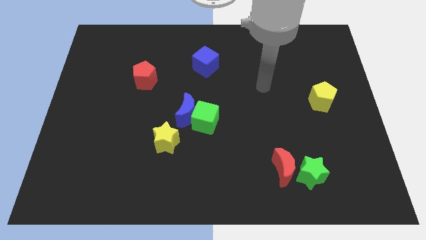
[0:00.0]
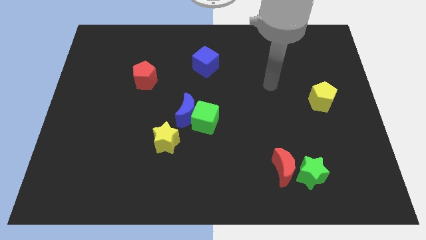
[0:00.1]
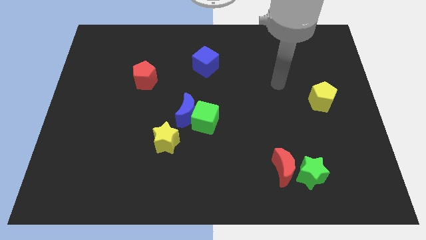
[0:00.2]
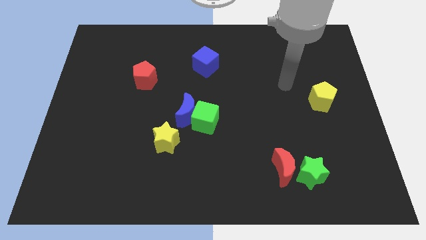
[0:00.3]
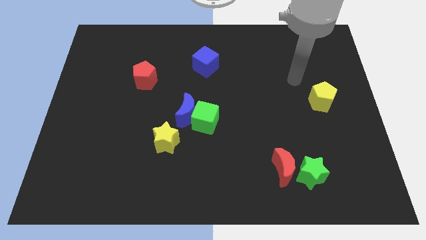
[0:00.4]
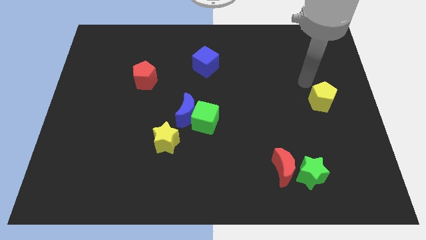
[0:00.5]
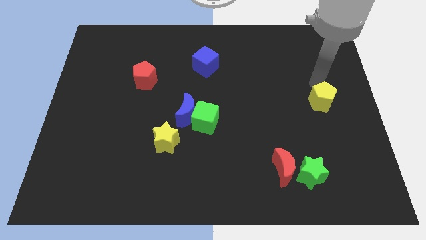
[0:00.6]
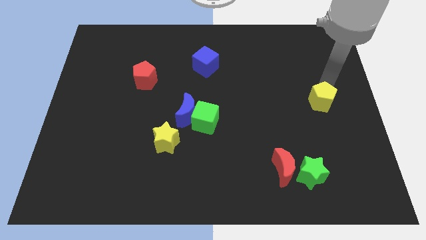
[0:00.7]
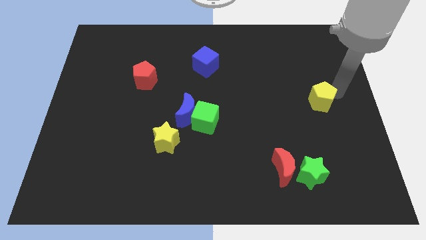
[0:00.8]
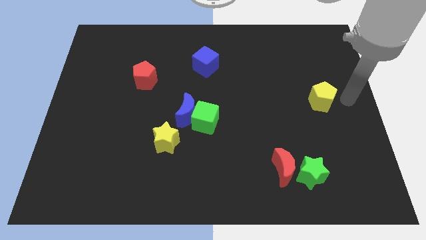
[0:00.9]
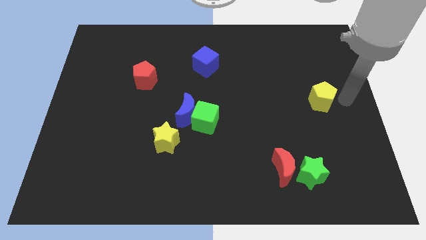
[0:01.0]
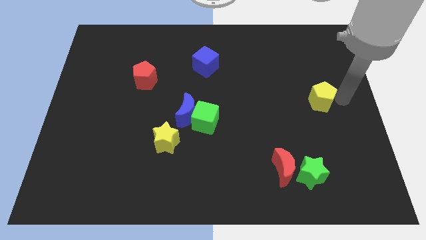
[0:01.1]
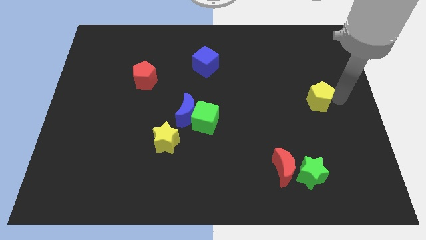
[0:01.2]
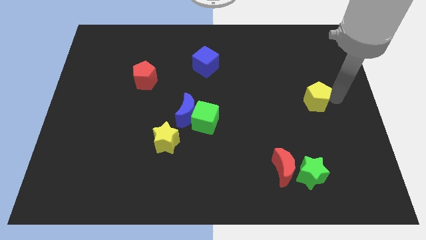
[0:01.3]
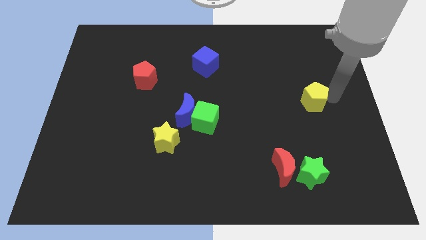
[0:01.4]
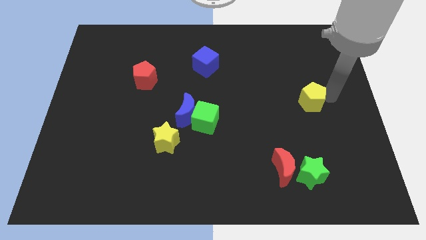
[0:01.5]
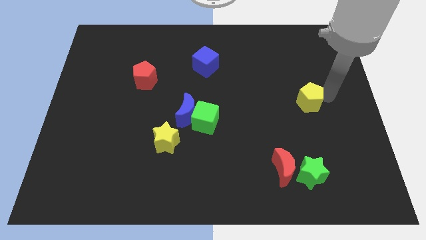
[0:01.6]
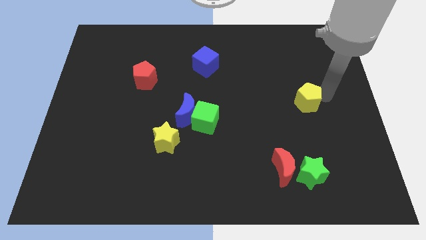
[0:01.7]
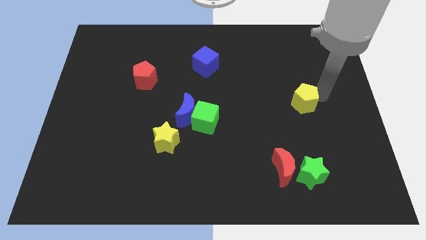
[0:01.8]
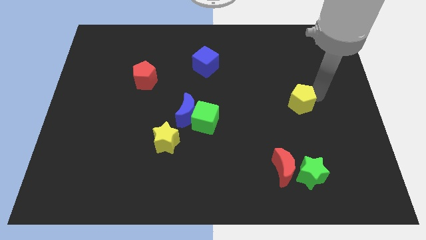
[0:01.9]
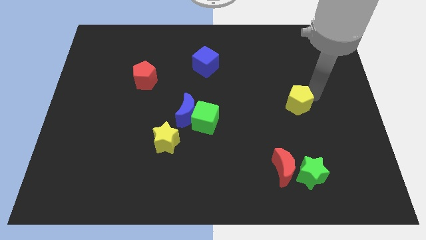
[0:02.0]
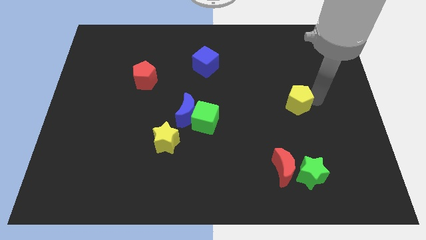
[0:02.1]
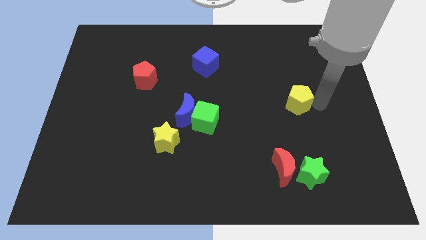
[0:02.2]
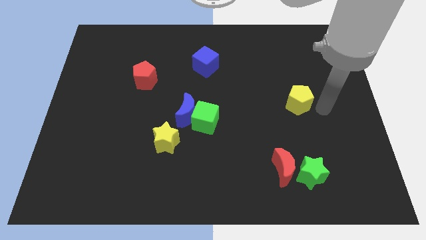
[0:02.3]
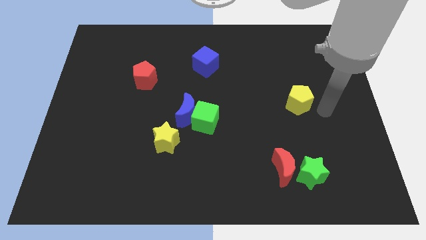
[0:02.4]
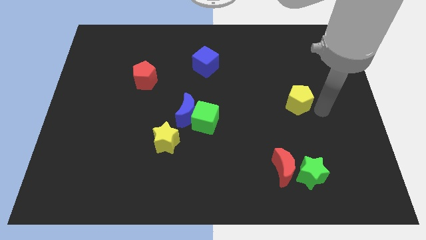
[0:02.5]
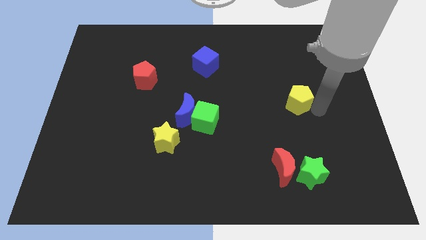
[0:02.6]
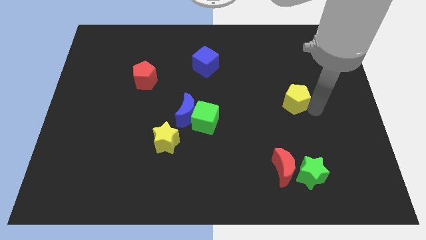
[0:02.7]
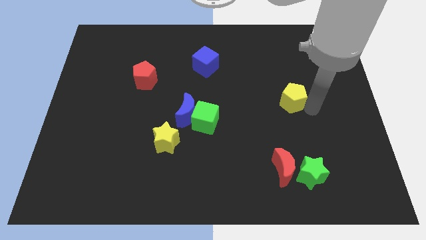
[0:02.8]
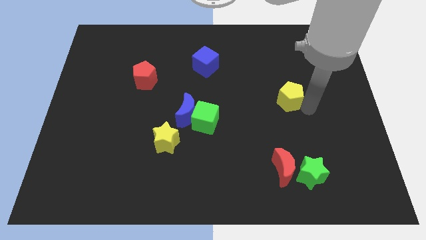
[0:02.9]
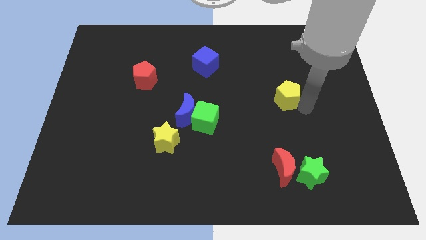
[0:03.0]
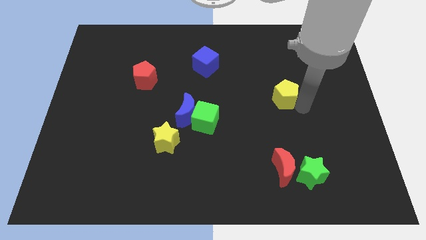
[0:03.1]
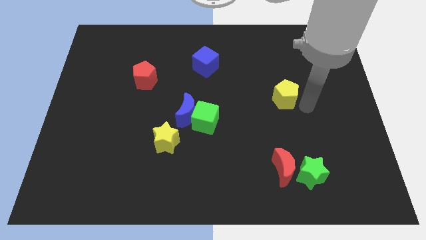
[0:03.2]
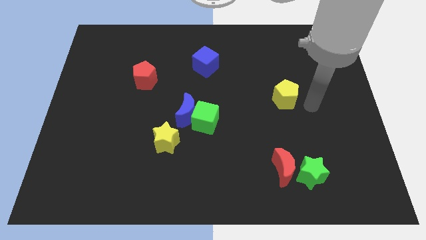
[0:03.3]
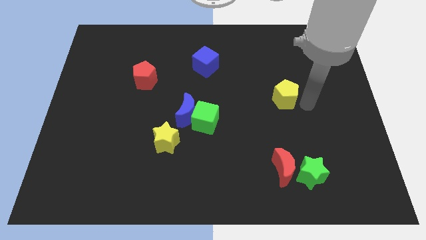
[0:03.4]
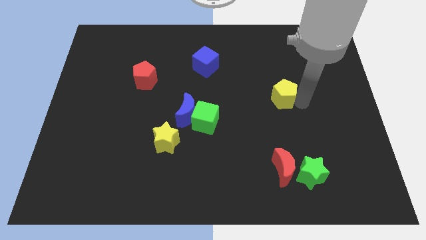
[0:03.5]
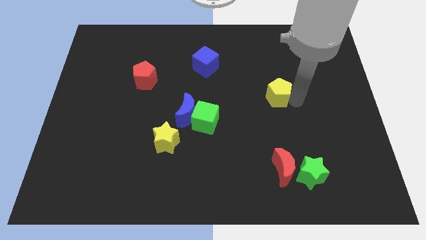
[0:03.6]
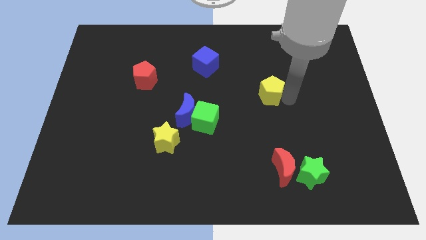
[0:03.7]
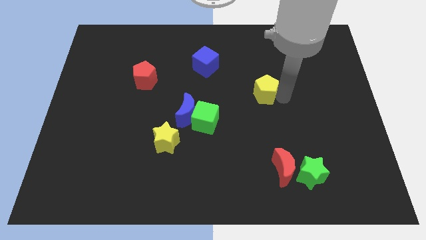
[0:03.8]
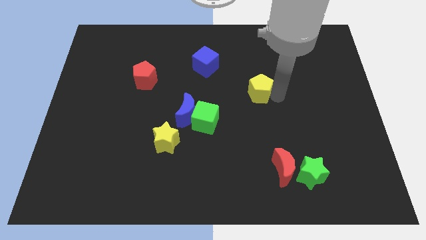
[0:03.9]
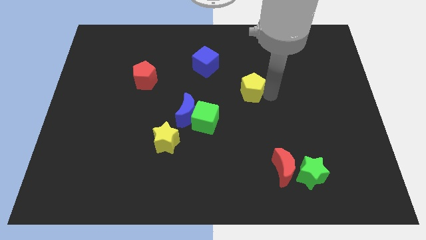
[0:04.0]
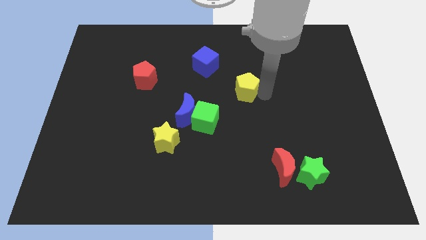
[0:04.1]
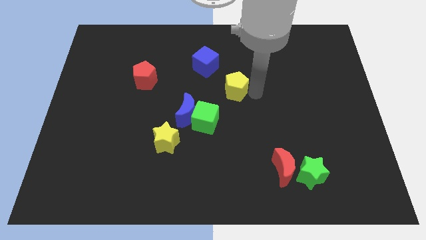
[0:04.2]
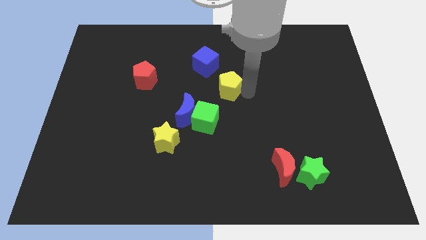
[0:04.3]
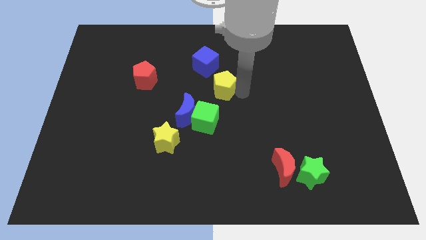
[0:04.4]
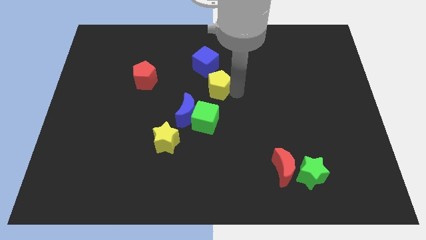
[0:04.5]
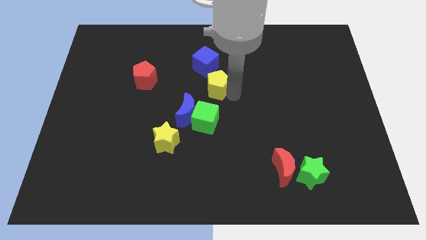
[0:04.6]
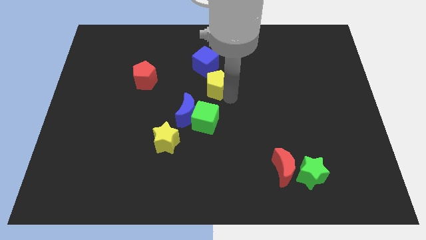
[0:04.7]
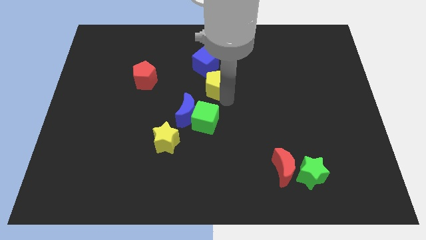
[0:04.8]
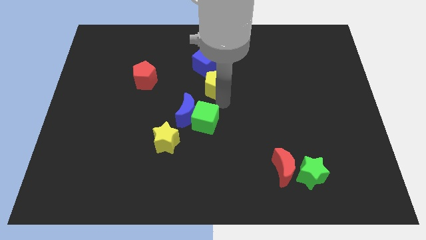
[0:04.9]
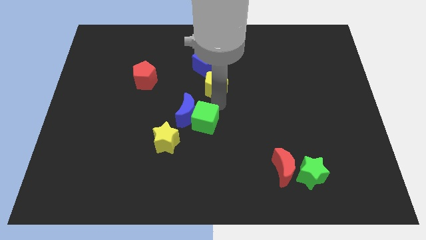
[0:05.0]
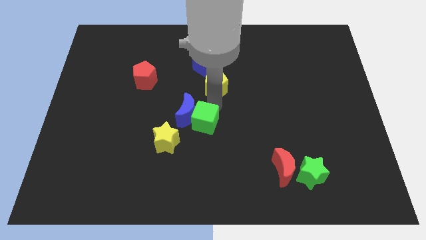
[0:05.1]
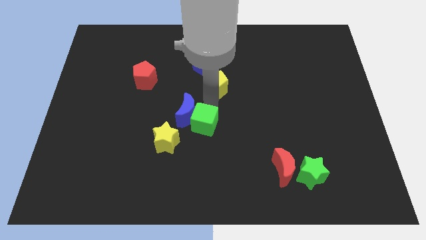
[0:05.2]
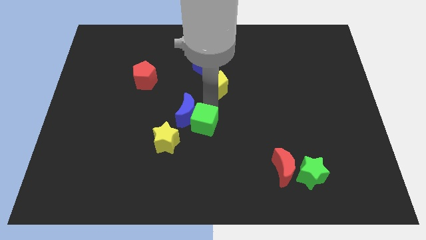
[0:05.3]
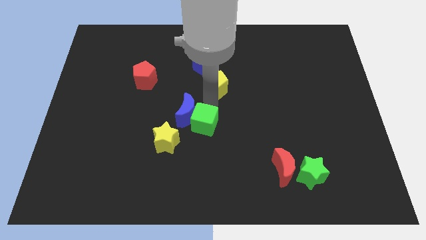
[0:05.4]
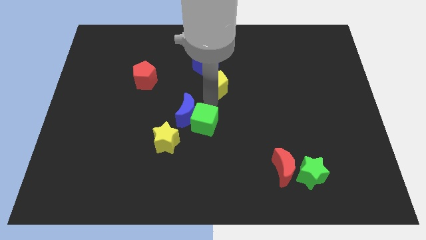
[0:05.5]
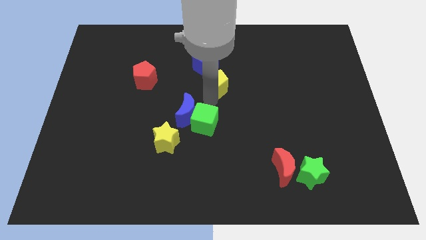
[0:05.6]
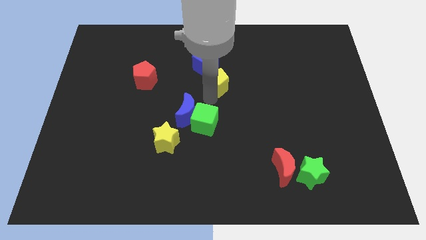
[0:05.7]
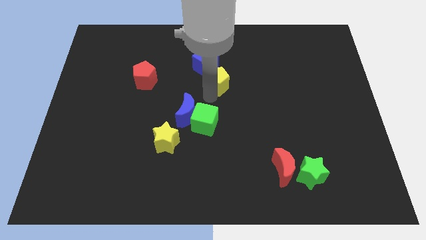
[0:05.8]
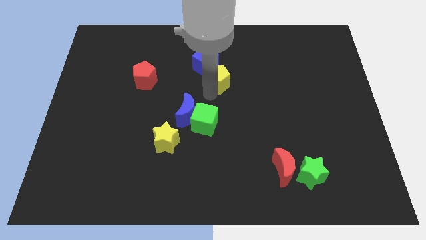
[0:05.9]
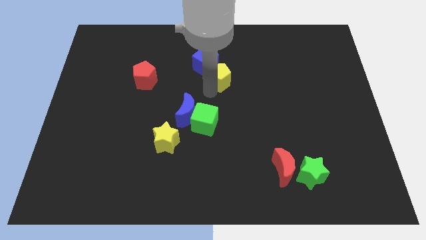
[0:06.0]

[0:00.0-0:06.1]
push the yellow pentagon close to the blue cube

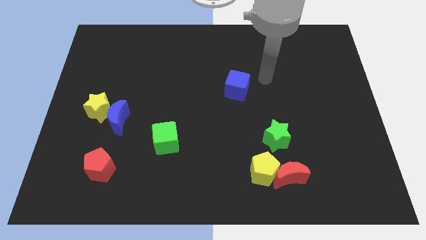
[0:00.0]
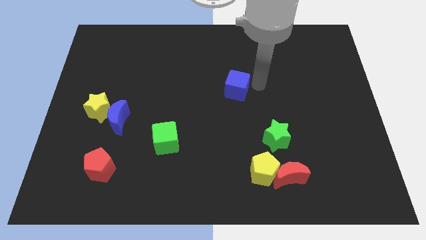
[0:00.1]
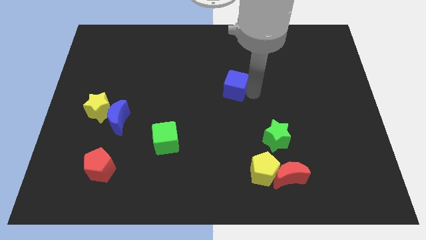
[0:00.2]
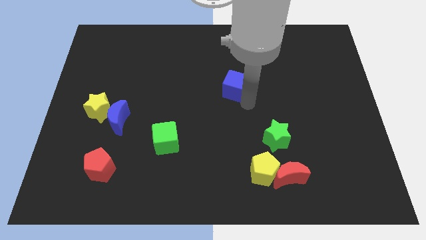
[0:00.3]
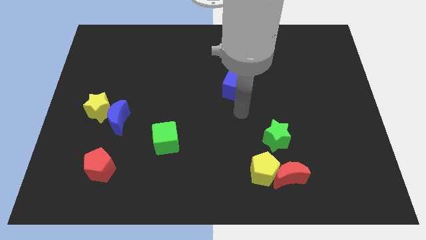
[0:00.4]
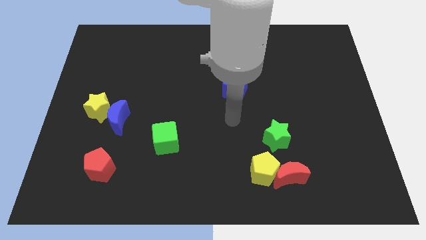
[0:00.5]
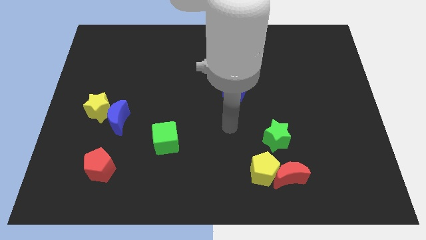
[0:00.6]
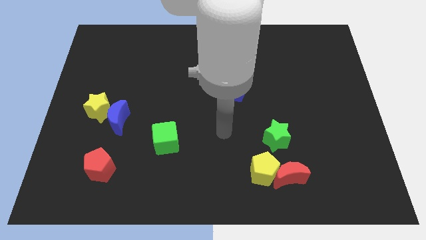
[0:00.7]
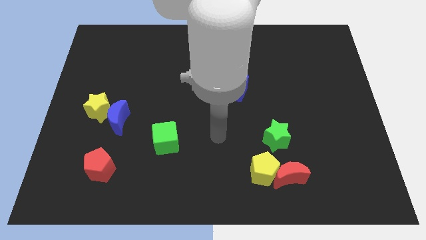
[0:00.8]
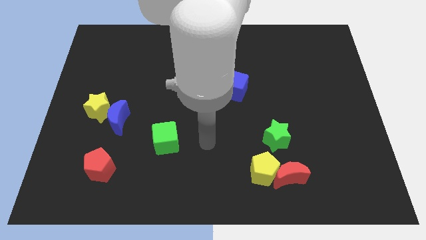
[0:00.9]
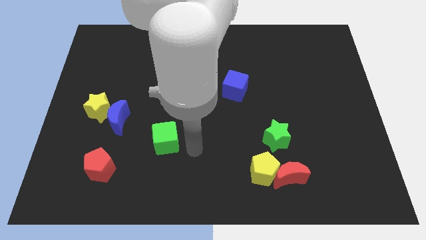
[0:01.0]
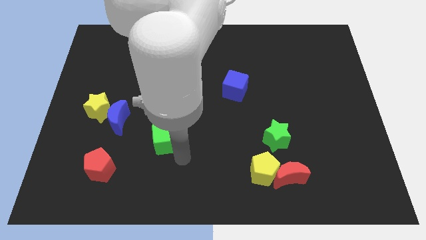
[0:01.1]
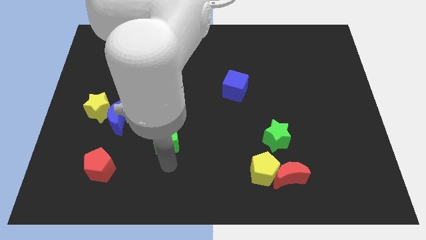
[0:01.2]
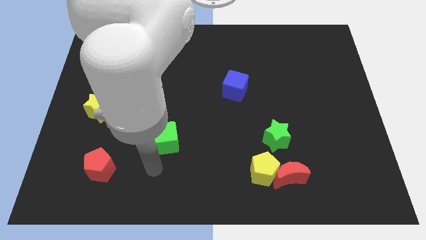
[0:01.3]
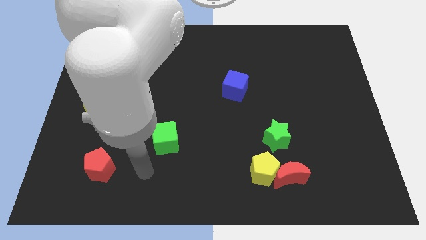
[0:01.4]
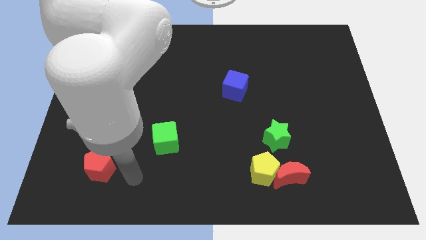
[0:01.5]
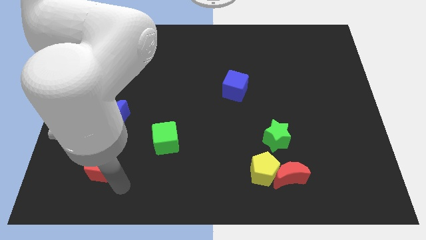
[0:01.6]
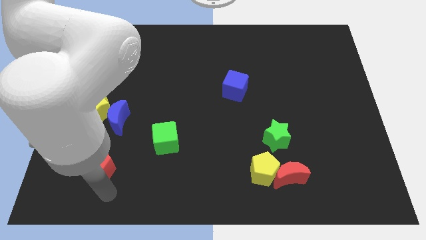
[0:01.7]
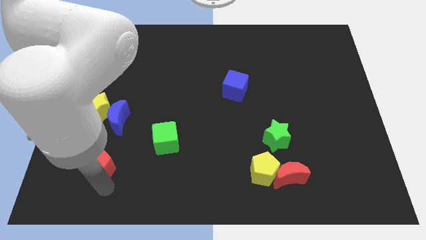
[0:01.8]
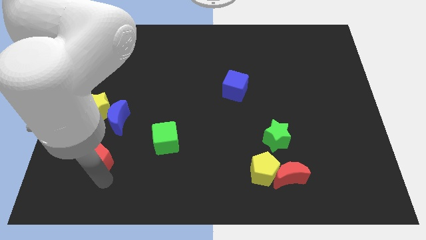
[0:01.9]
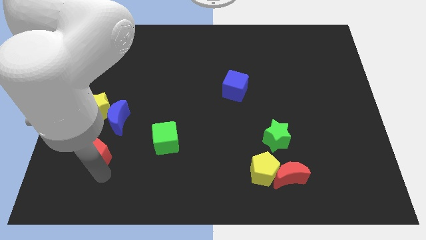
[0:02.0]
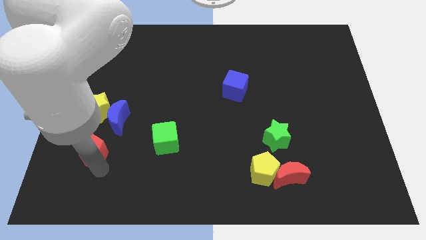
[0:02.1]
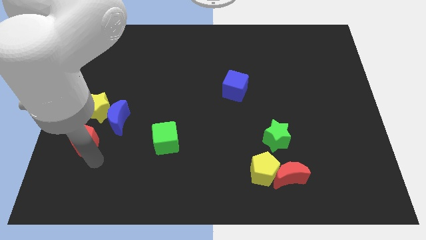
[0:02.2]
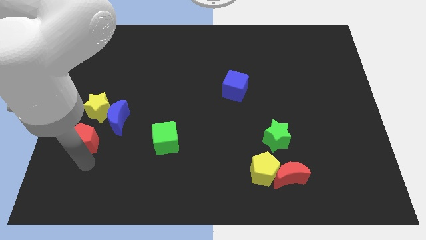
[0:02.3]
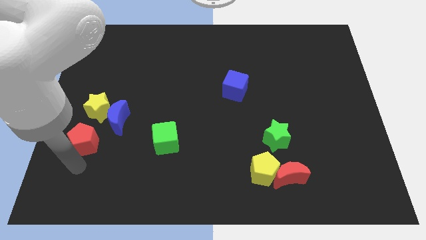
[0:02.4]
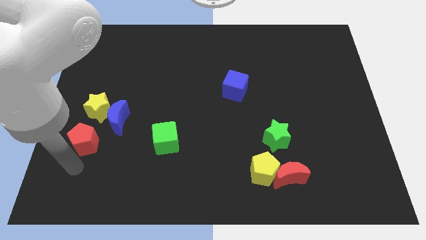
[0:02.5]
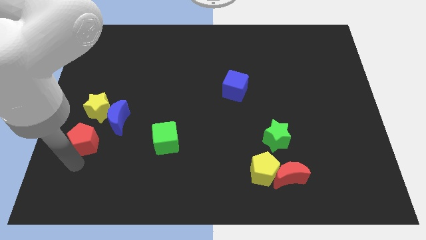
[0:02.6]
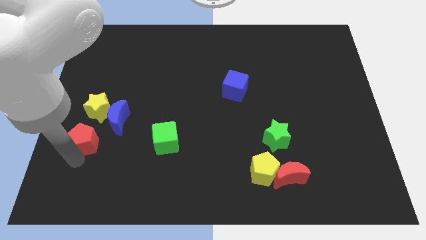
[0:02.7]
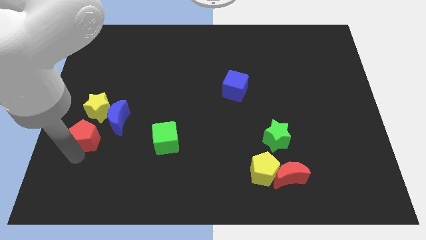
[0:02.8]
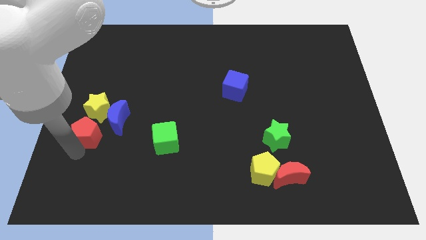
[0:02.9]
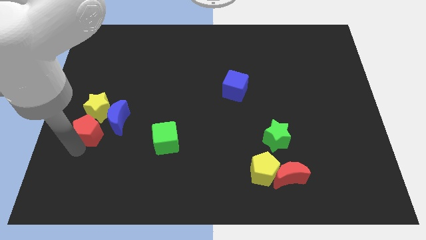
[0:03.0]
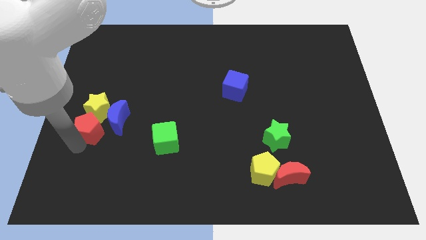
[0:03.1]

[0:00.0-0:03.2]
put the red pentagon next to the yellow star
